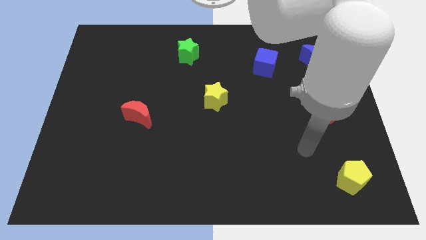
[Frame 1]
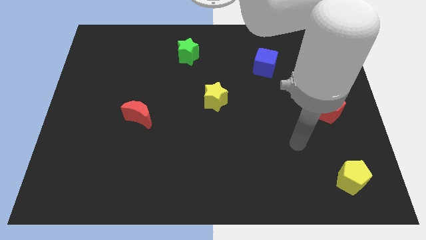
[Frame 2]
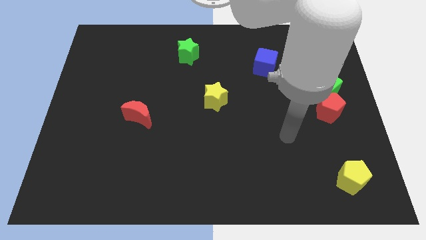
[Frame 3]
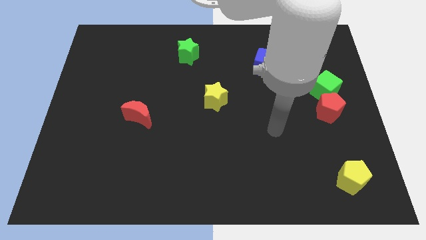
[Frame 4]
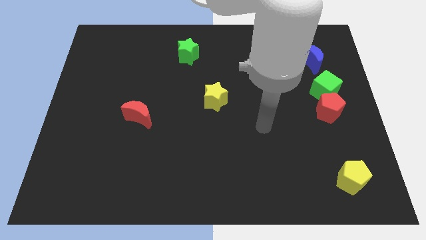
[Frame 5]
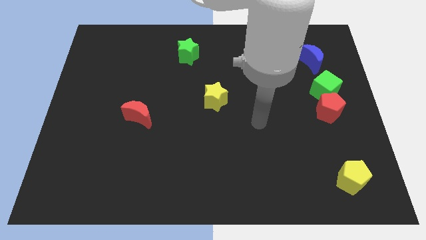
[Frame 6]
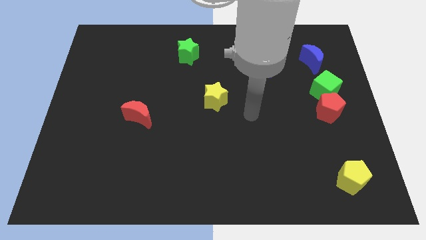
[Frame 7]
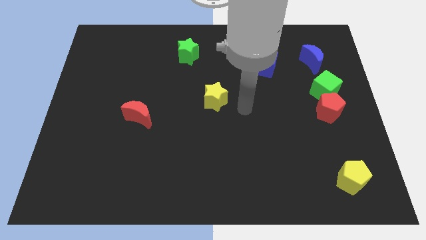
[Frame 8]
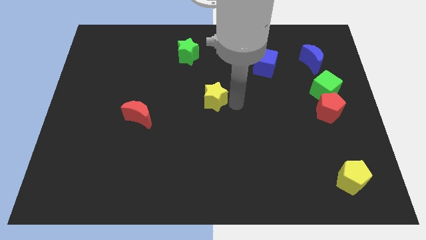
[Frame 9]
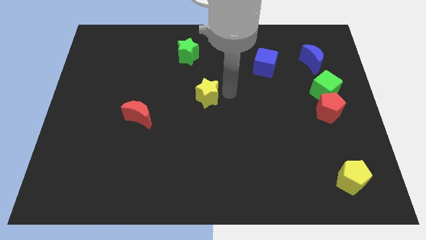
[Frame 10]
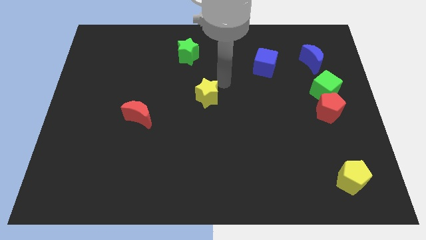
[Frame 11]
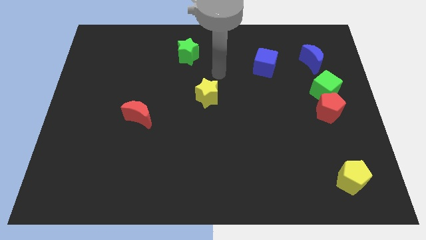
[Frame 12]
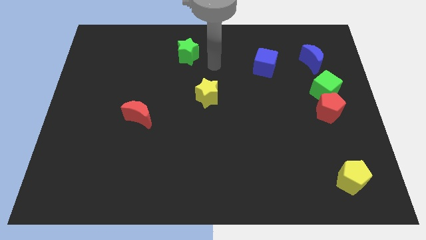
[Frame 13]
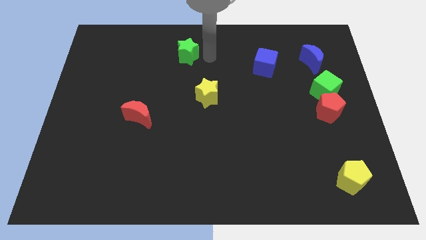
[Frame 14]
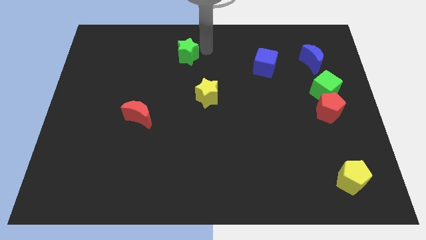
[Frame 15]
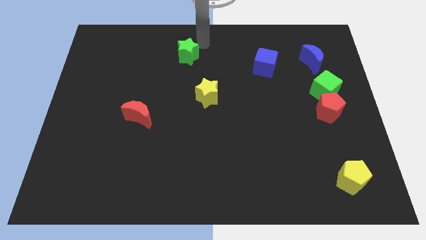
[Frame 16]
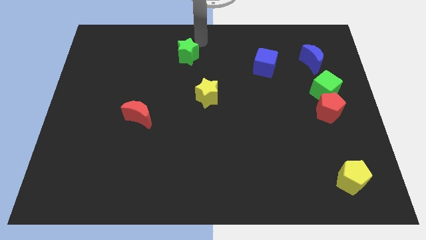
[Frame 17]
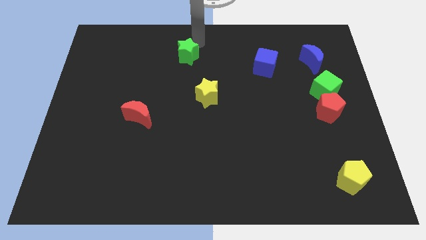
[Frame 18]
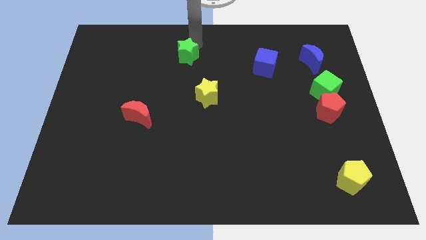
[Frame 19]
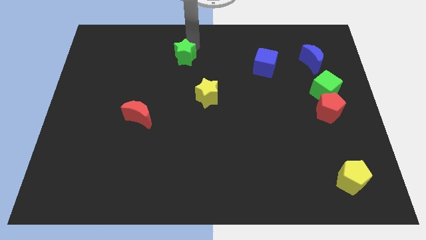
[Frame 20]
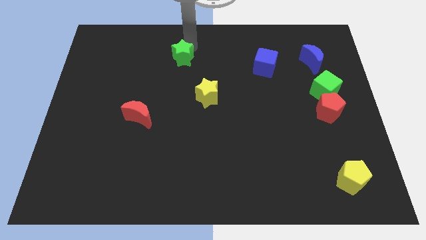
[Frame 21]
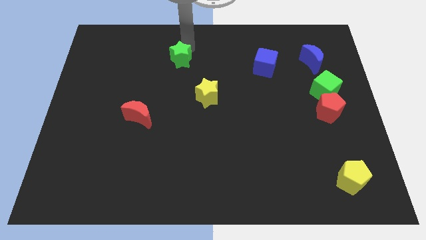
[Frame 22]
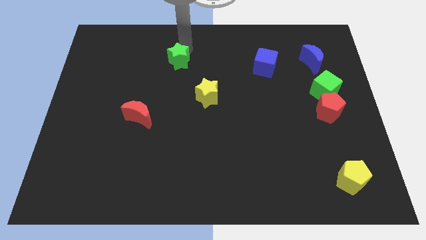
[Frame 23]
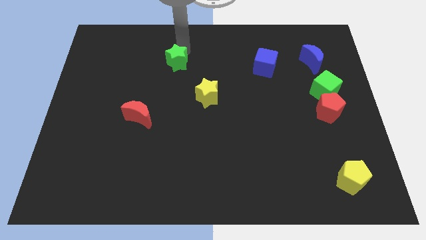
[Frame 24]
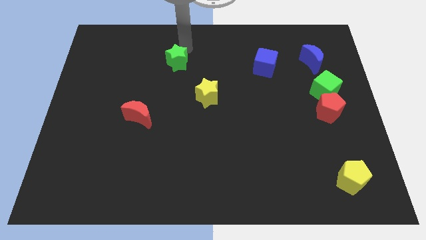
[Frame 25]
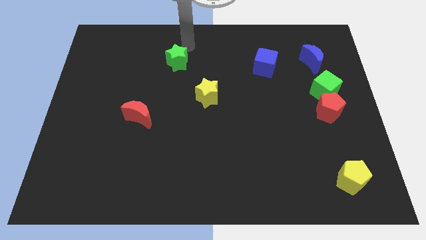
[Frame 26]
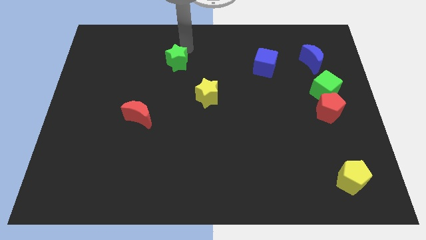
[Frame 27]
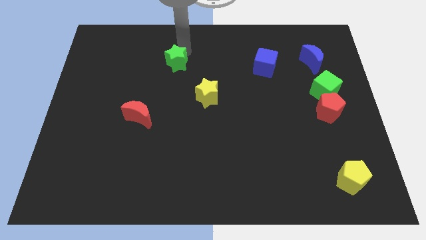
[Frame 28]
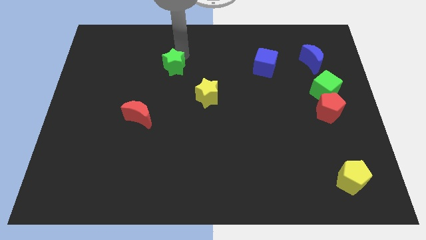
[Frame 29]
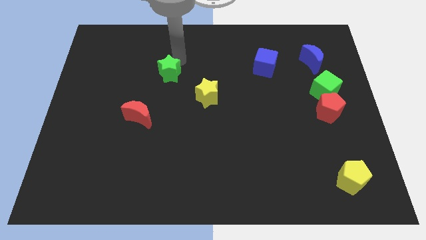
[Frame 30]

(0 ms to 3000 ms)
push the green star down and then left a little bit

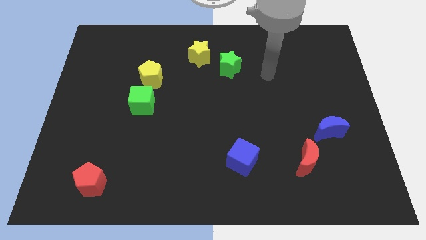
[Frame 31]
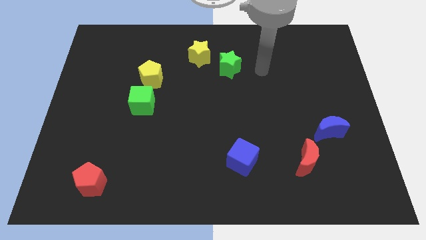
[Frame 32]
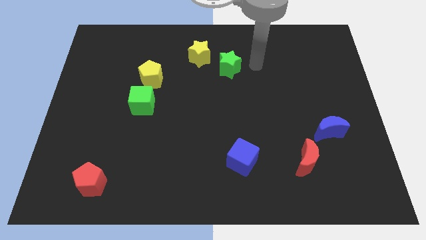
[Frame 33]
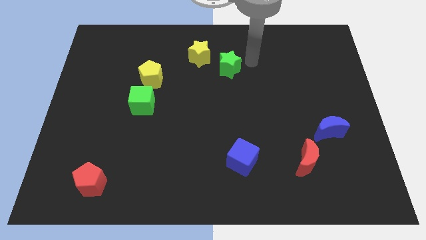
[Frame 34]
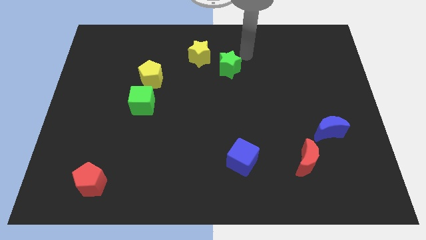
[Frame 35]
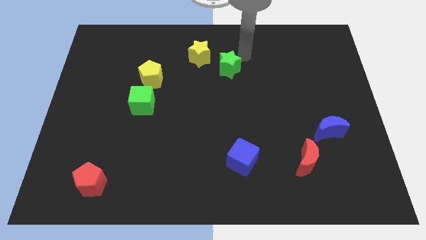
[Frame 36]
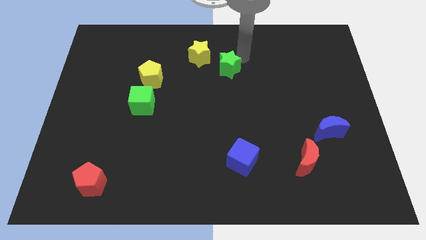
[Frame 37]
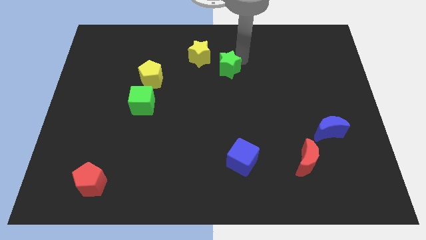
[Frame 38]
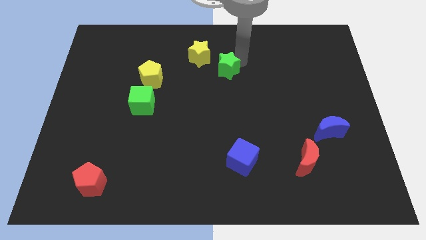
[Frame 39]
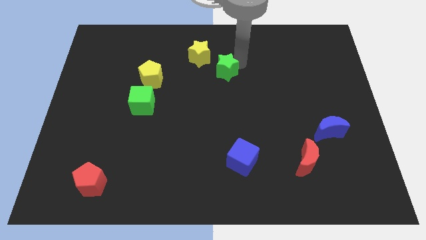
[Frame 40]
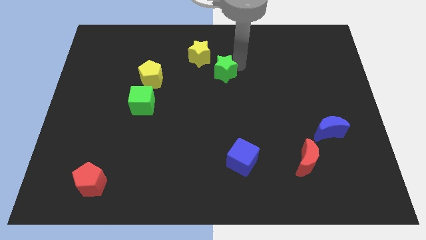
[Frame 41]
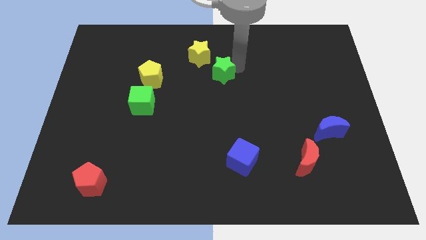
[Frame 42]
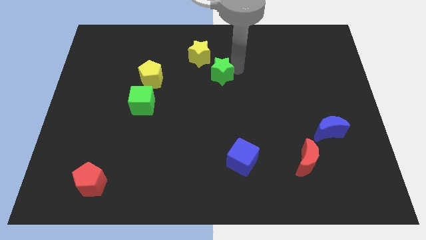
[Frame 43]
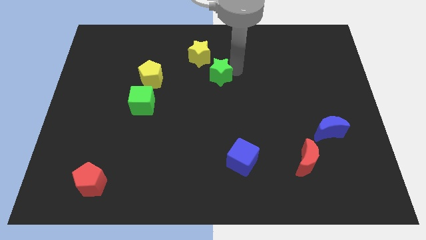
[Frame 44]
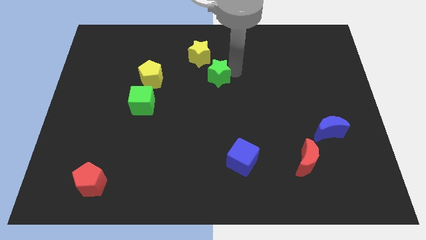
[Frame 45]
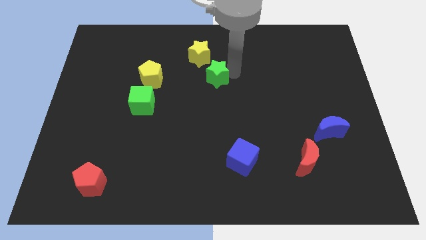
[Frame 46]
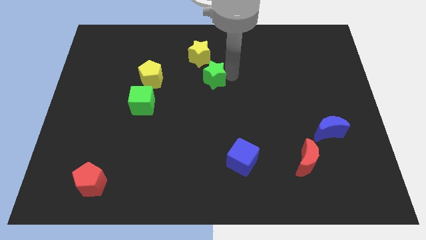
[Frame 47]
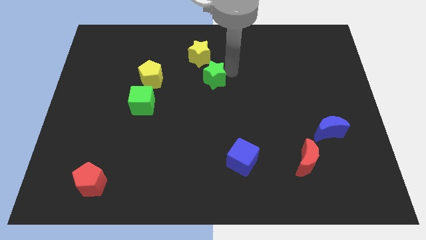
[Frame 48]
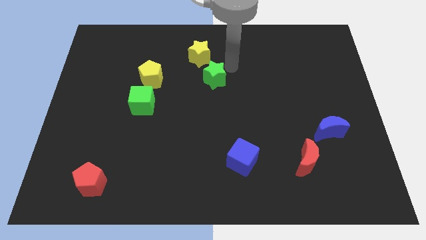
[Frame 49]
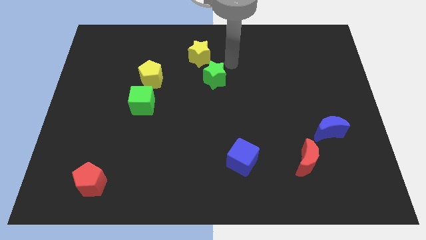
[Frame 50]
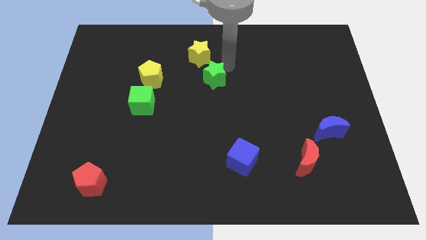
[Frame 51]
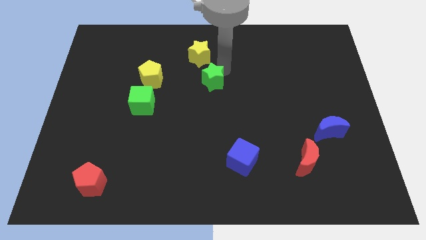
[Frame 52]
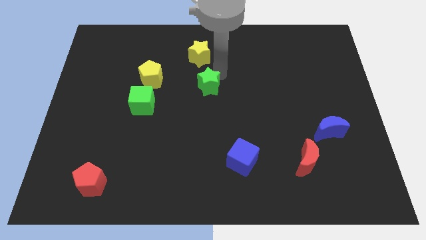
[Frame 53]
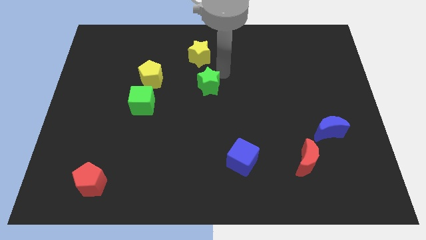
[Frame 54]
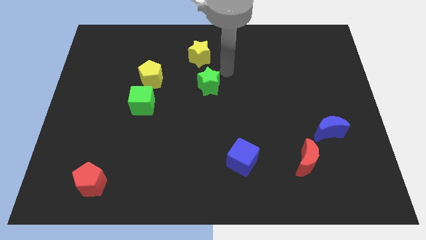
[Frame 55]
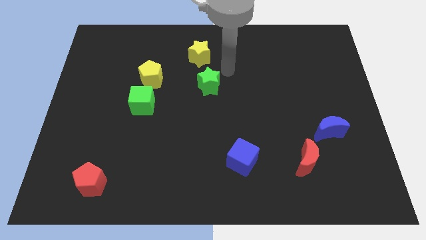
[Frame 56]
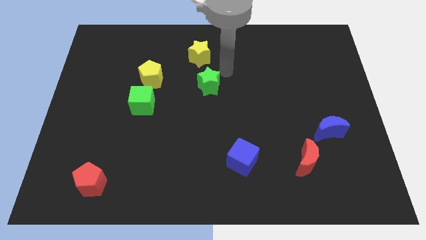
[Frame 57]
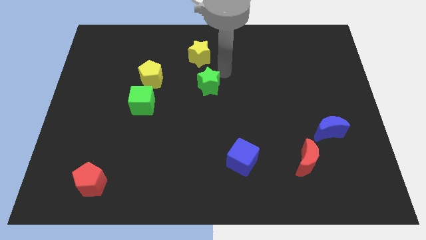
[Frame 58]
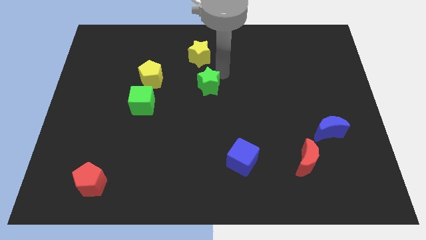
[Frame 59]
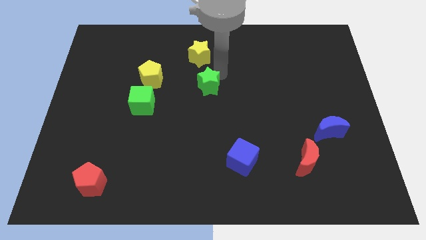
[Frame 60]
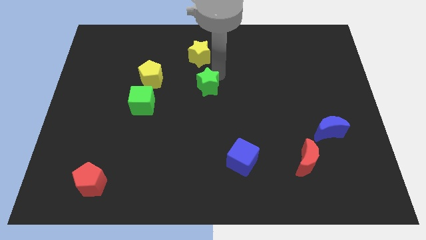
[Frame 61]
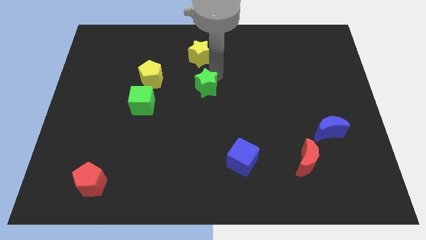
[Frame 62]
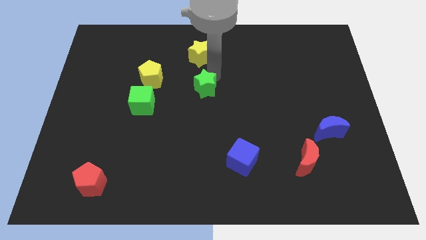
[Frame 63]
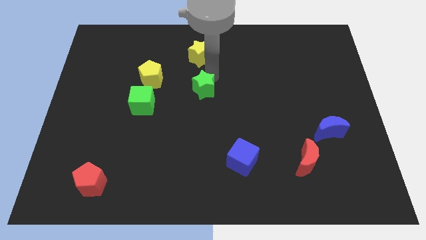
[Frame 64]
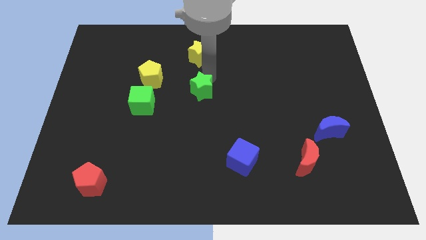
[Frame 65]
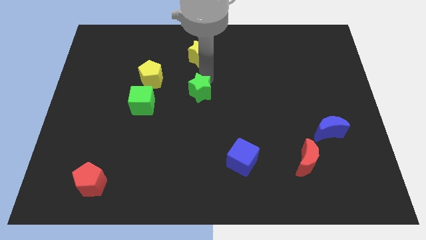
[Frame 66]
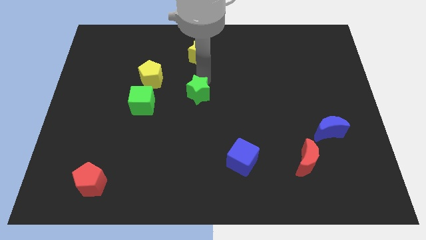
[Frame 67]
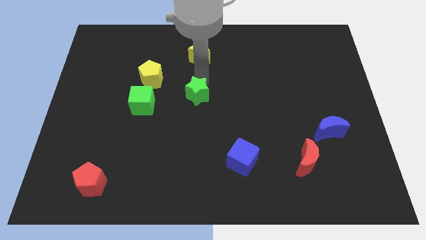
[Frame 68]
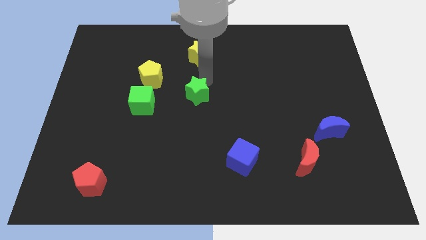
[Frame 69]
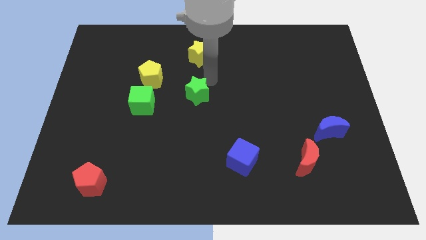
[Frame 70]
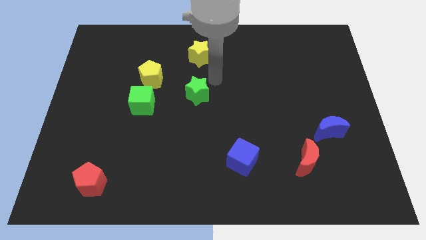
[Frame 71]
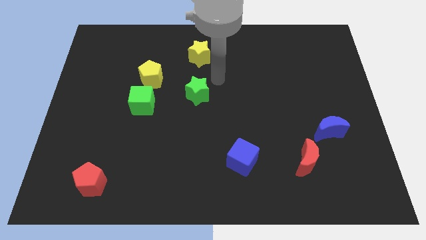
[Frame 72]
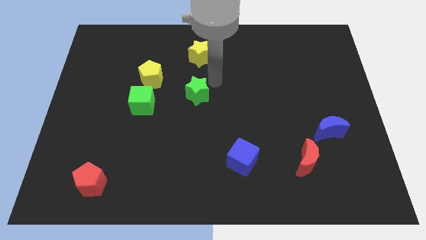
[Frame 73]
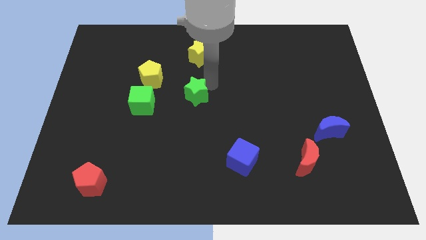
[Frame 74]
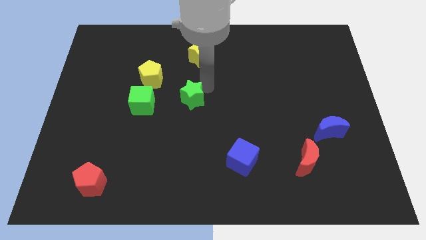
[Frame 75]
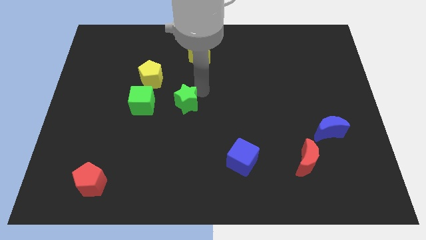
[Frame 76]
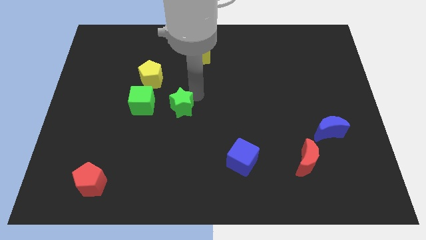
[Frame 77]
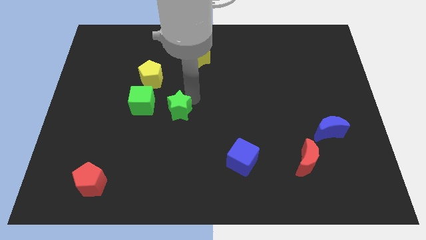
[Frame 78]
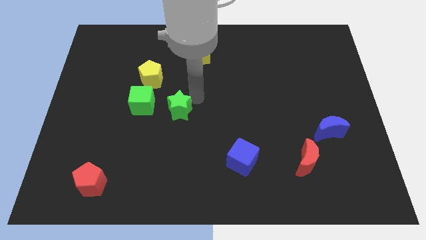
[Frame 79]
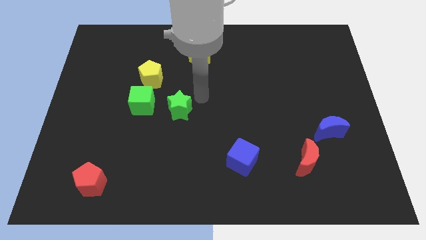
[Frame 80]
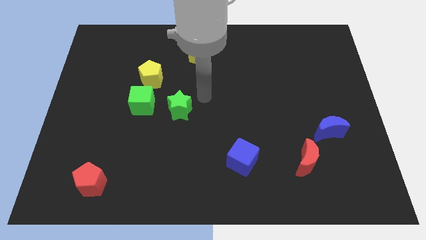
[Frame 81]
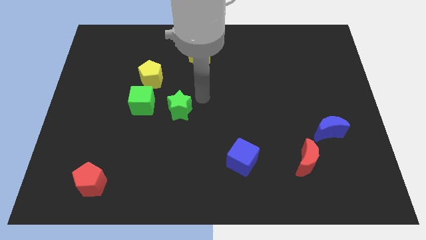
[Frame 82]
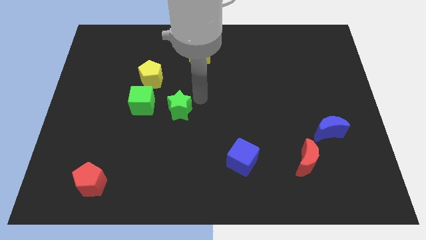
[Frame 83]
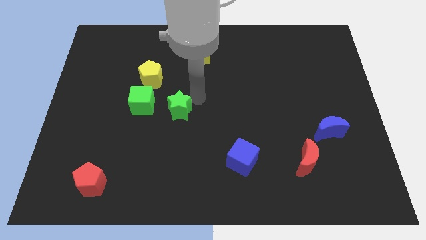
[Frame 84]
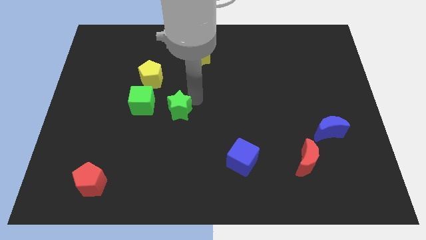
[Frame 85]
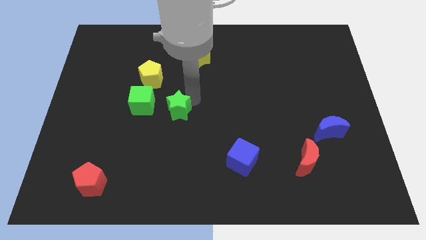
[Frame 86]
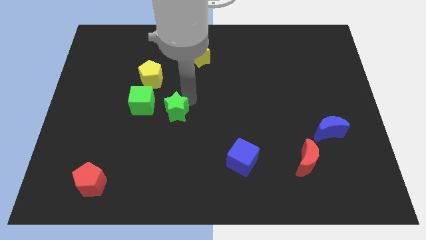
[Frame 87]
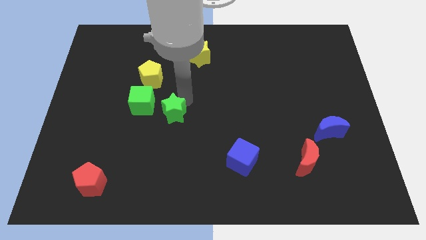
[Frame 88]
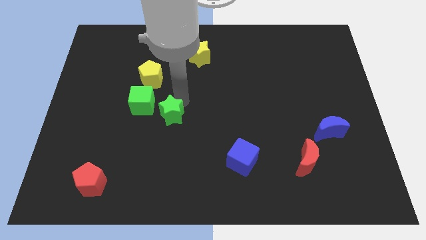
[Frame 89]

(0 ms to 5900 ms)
slide the green star diagonally downwards and left
